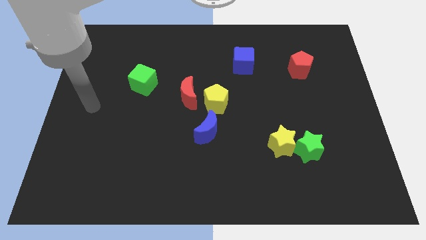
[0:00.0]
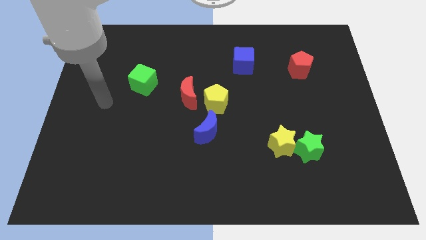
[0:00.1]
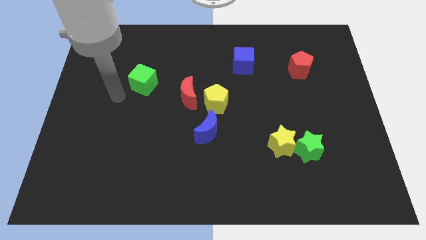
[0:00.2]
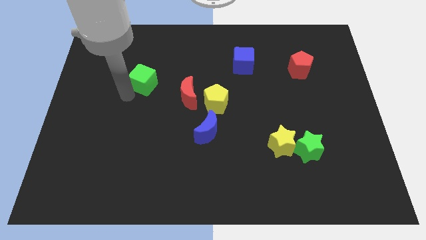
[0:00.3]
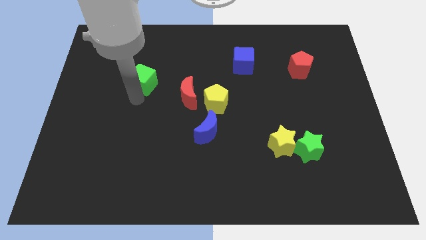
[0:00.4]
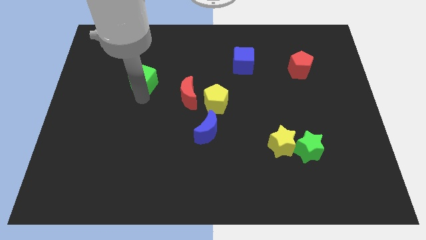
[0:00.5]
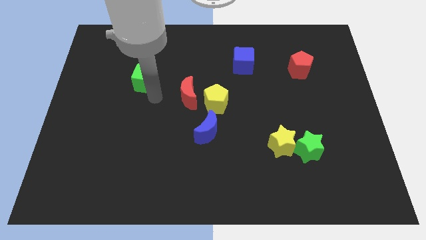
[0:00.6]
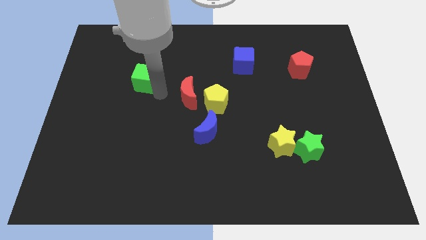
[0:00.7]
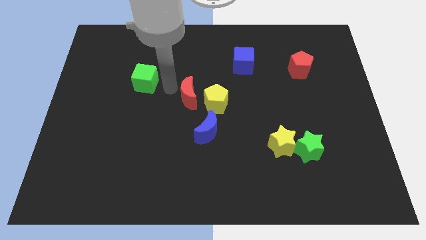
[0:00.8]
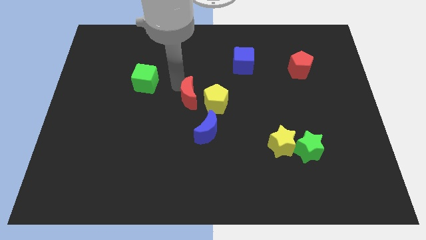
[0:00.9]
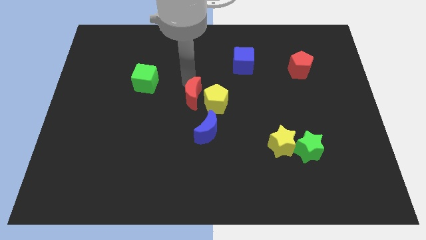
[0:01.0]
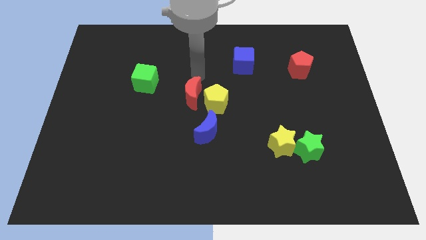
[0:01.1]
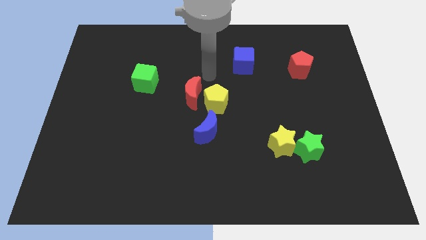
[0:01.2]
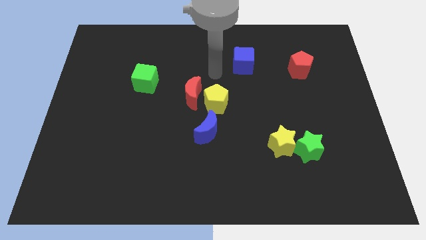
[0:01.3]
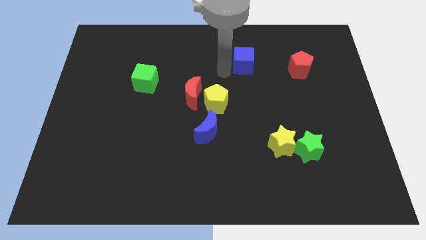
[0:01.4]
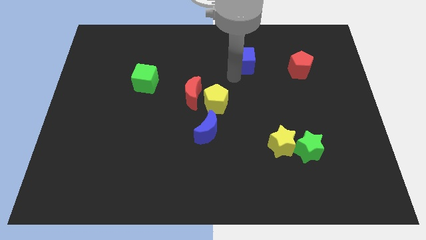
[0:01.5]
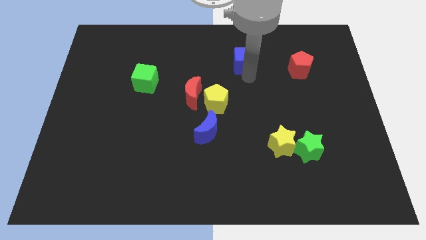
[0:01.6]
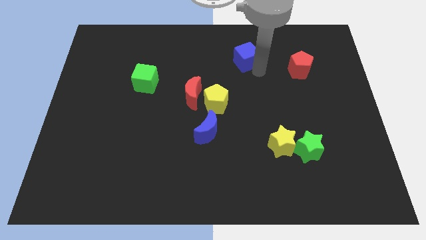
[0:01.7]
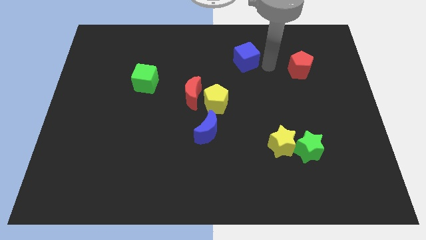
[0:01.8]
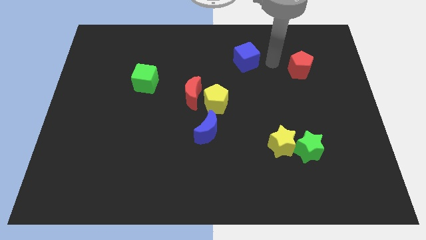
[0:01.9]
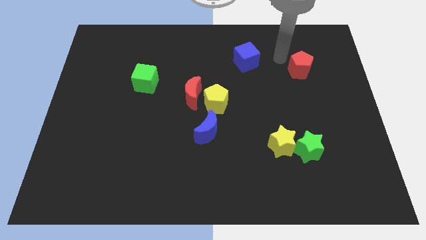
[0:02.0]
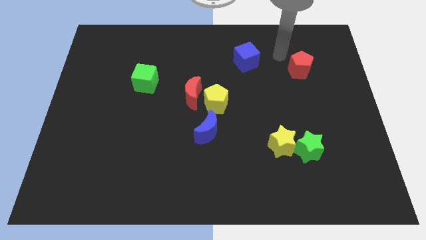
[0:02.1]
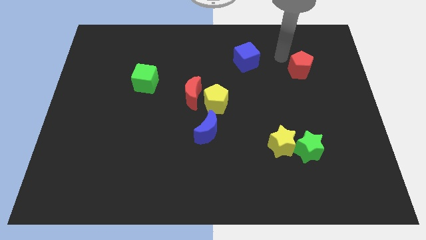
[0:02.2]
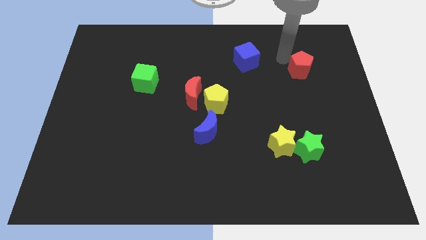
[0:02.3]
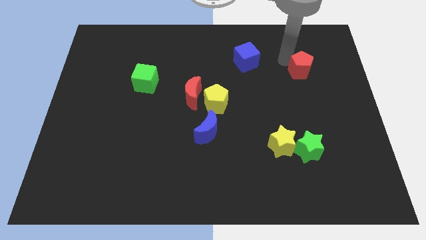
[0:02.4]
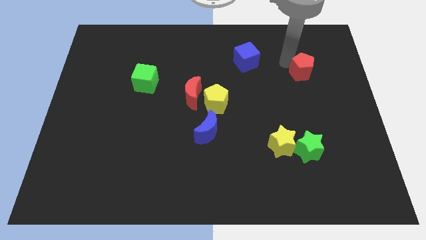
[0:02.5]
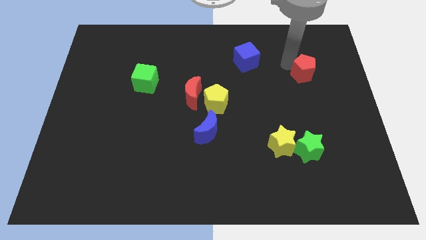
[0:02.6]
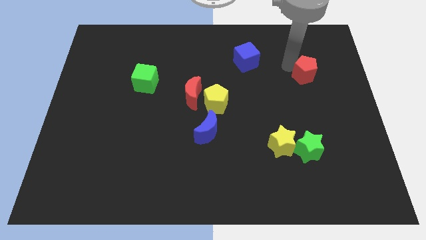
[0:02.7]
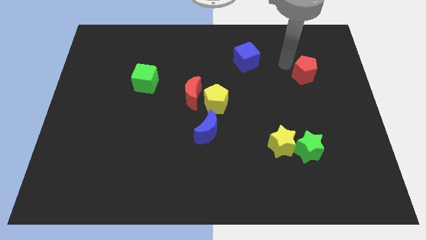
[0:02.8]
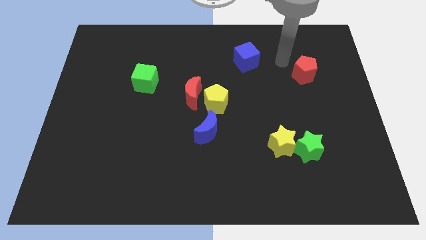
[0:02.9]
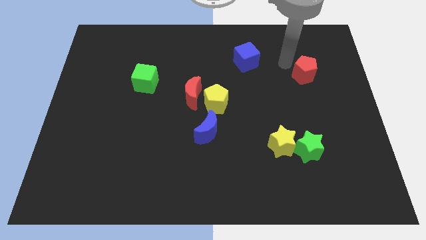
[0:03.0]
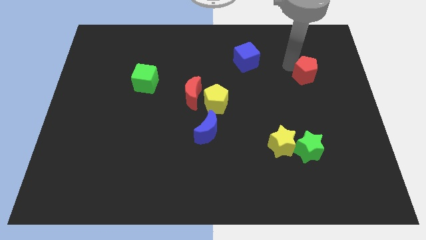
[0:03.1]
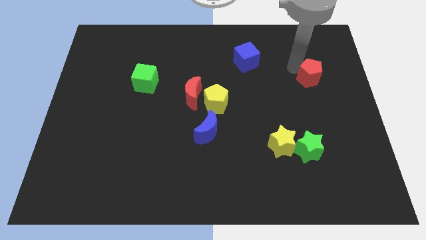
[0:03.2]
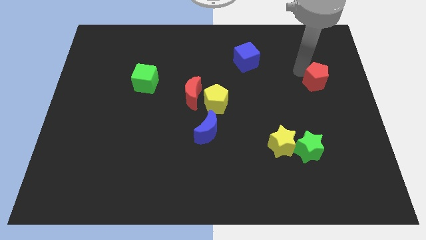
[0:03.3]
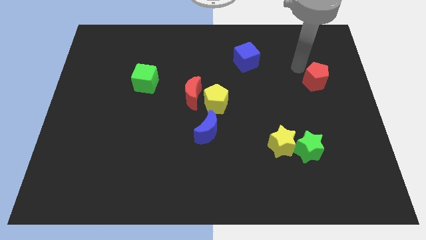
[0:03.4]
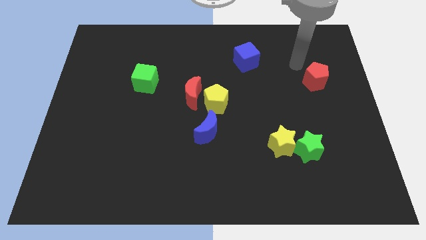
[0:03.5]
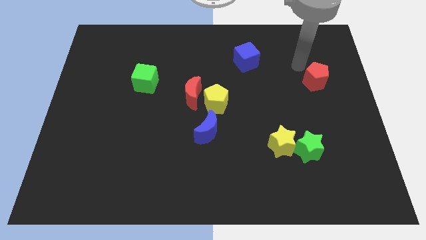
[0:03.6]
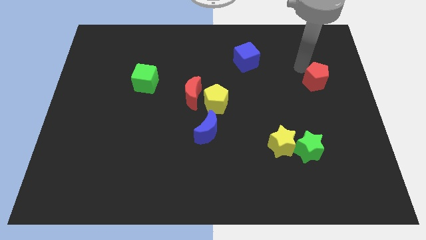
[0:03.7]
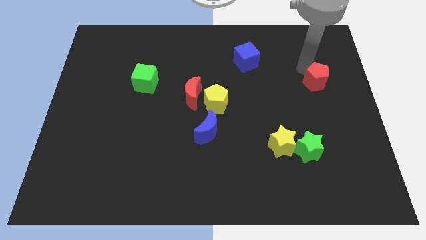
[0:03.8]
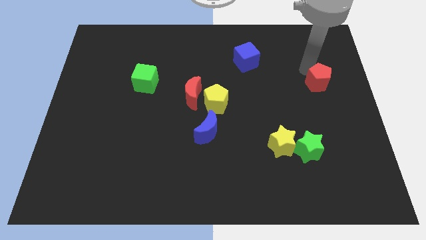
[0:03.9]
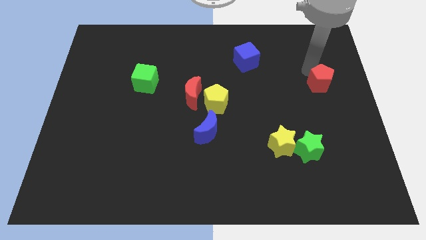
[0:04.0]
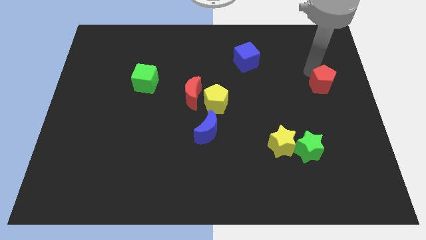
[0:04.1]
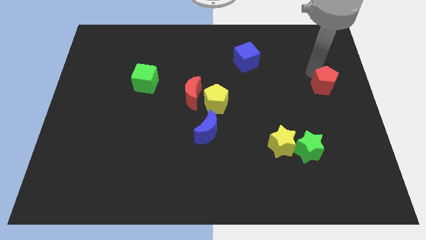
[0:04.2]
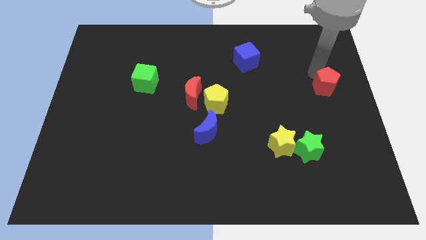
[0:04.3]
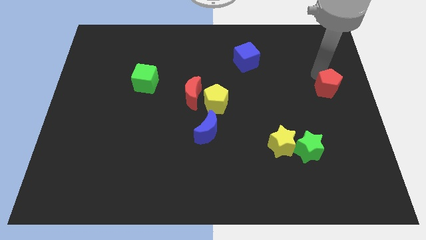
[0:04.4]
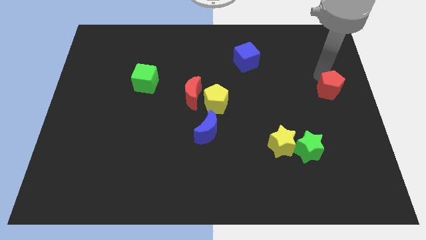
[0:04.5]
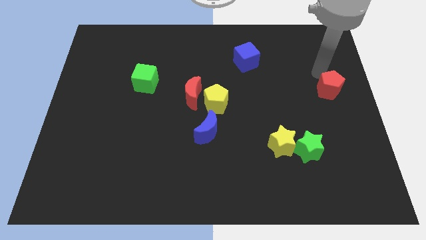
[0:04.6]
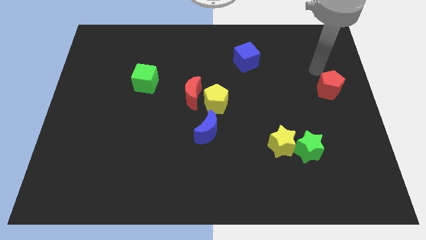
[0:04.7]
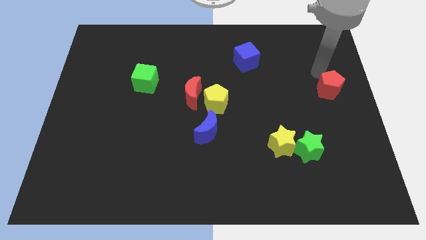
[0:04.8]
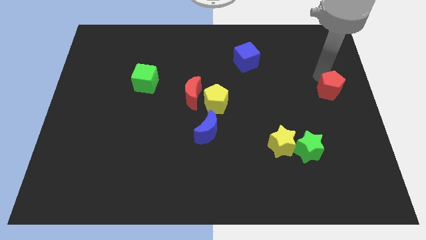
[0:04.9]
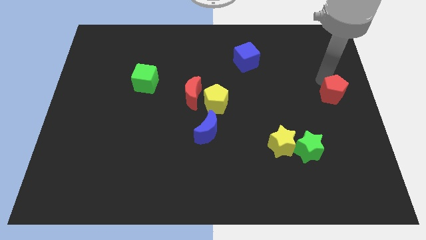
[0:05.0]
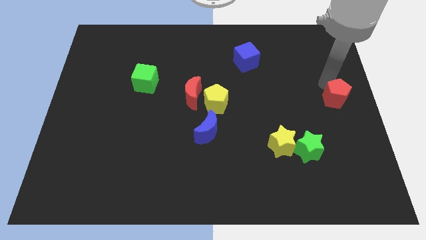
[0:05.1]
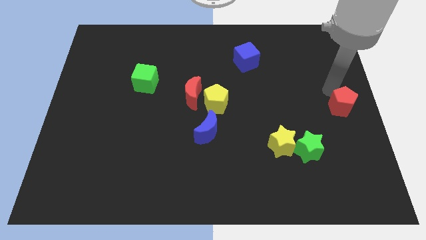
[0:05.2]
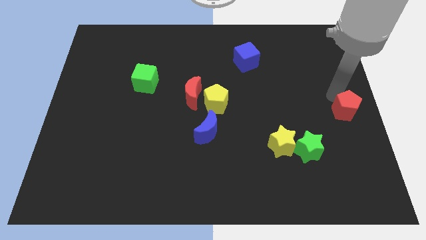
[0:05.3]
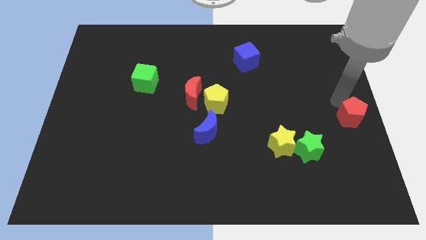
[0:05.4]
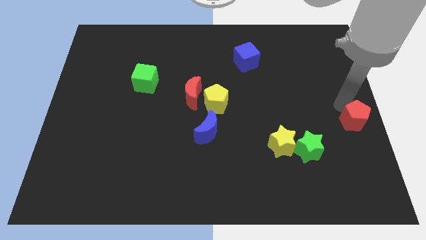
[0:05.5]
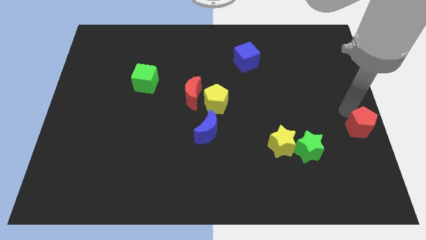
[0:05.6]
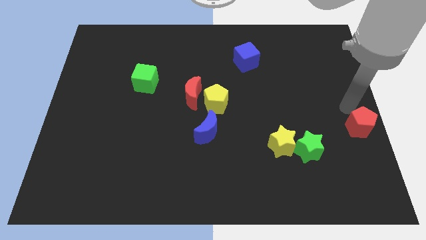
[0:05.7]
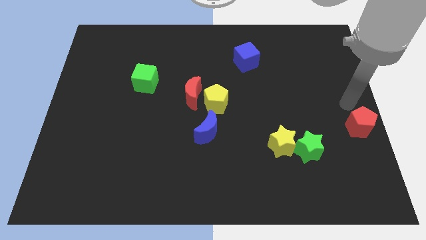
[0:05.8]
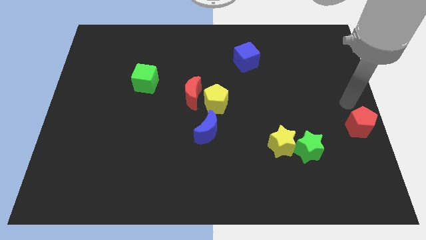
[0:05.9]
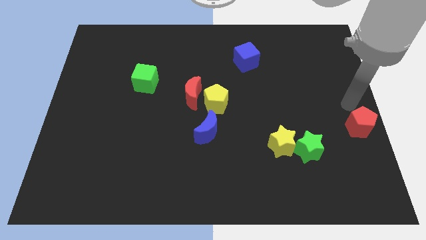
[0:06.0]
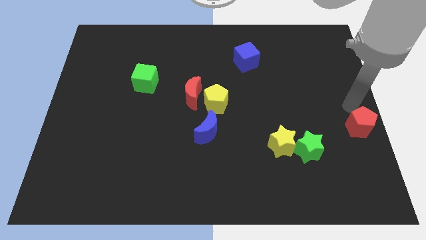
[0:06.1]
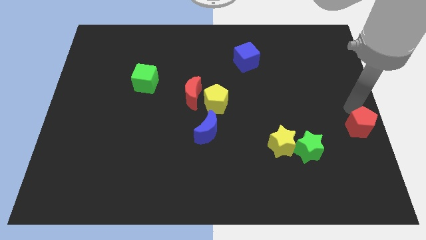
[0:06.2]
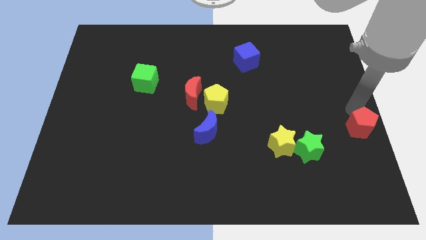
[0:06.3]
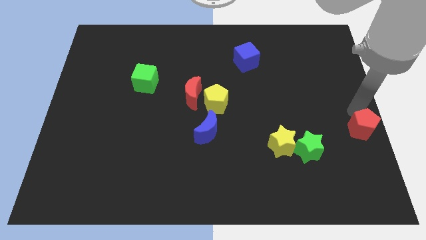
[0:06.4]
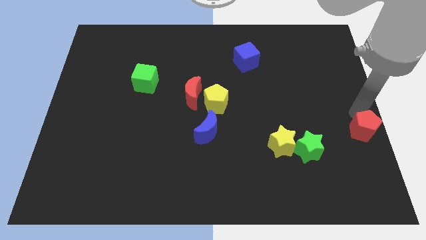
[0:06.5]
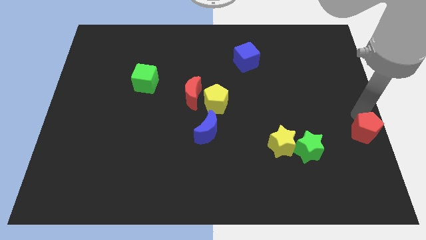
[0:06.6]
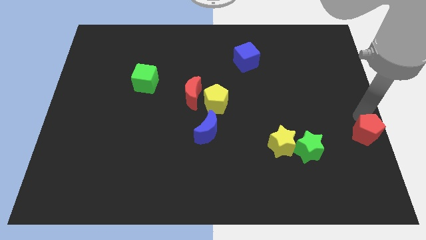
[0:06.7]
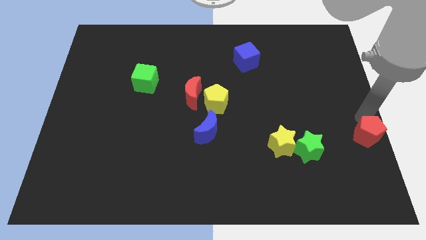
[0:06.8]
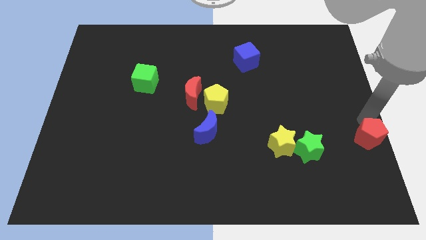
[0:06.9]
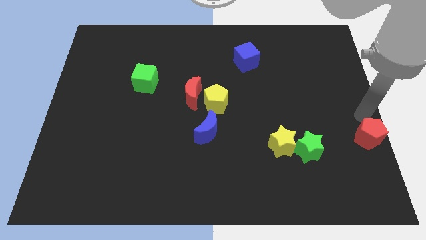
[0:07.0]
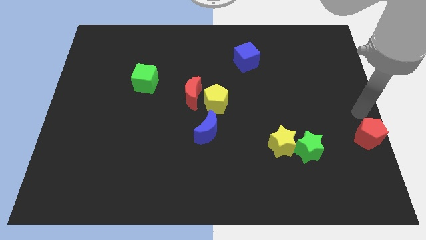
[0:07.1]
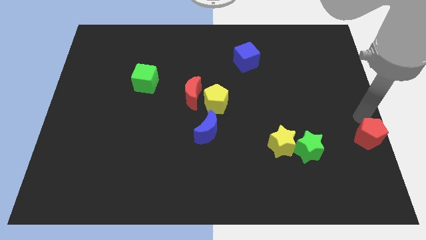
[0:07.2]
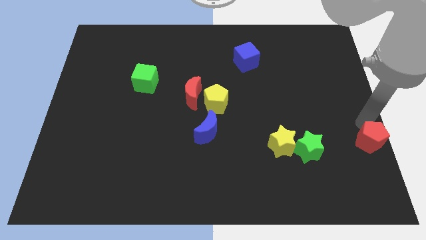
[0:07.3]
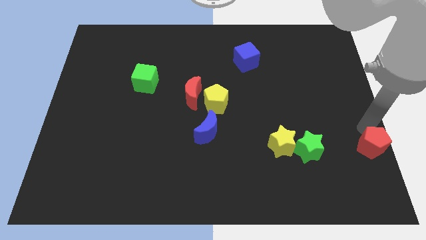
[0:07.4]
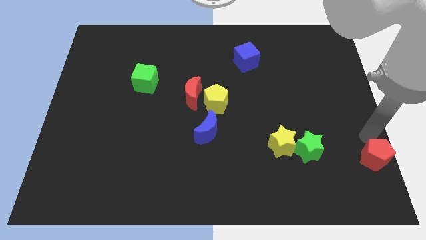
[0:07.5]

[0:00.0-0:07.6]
put the red pentagon to the bottom right

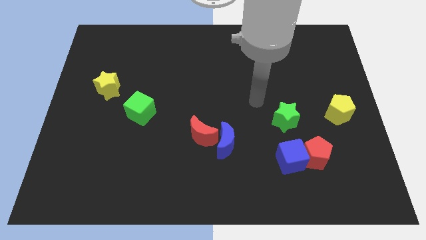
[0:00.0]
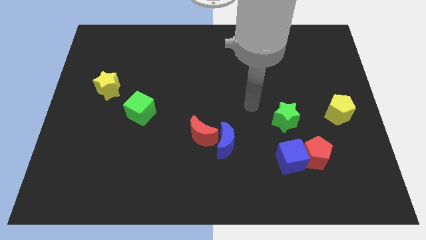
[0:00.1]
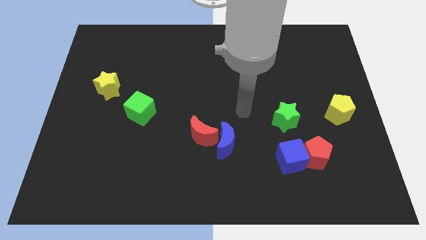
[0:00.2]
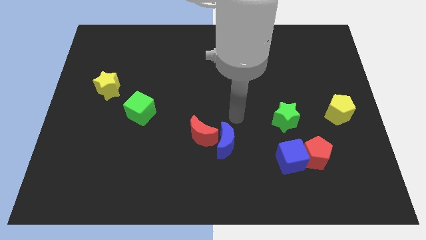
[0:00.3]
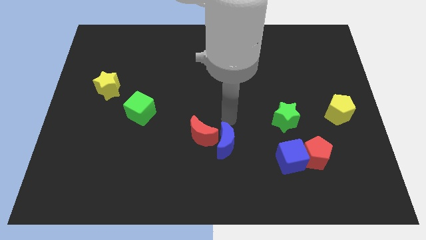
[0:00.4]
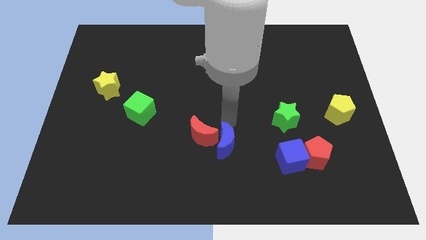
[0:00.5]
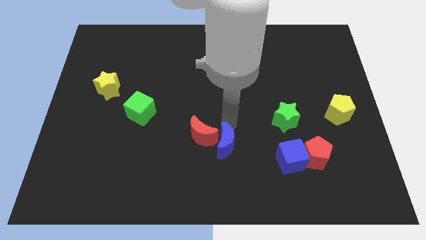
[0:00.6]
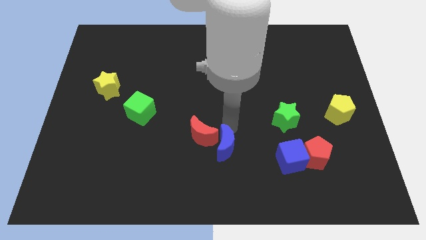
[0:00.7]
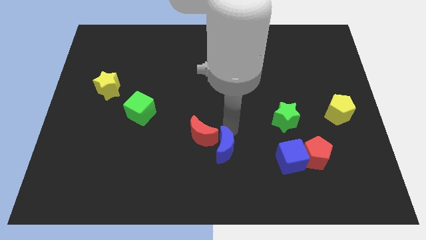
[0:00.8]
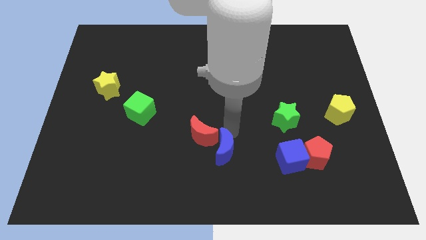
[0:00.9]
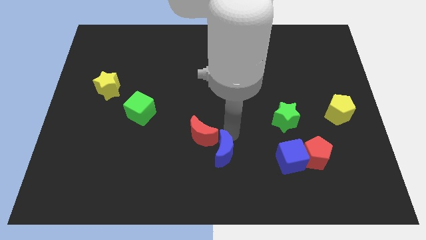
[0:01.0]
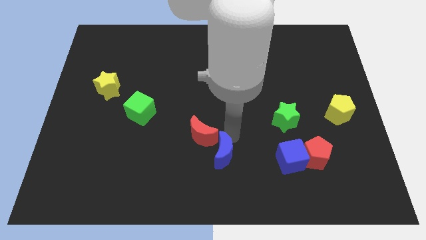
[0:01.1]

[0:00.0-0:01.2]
put the blue moon to the bottom
